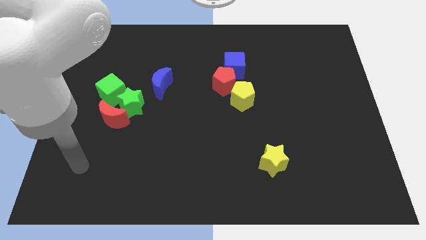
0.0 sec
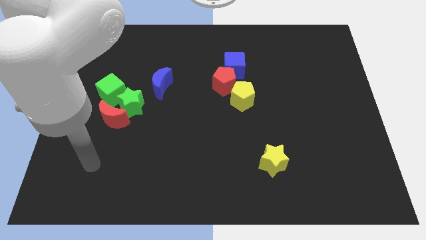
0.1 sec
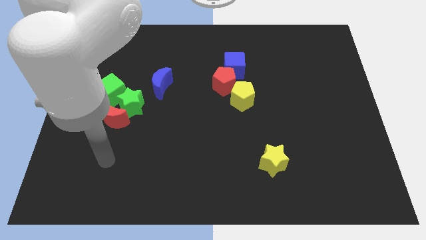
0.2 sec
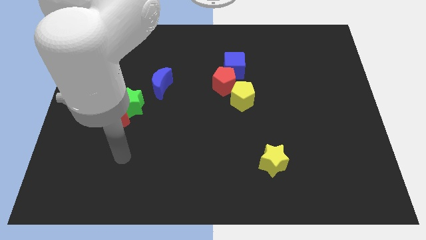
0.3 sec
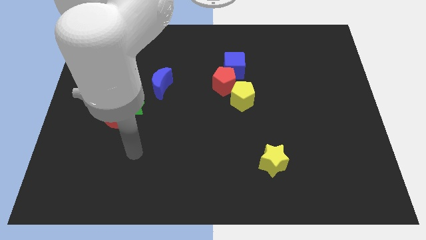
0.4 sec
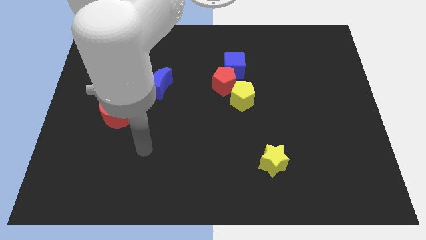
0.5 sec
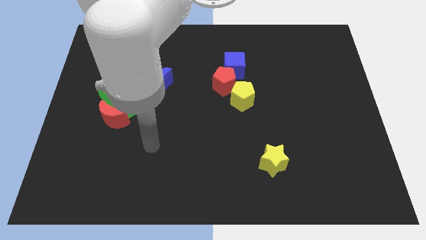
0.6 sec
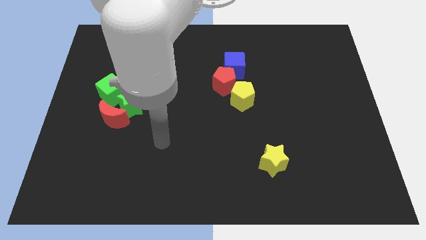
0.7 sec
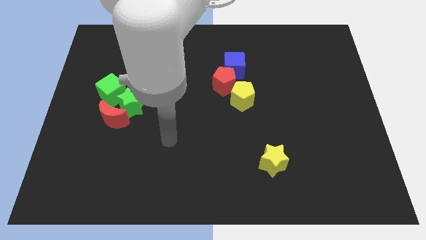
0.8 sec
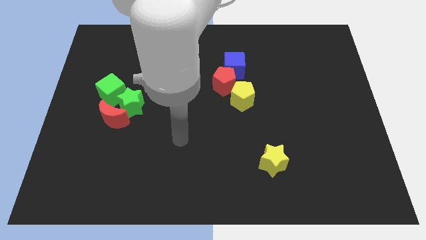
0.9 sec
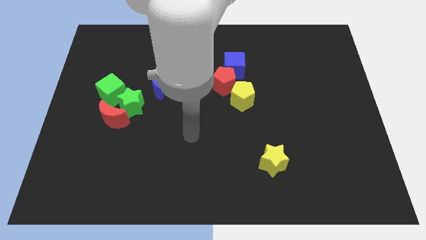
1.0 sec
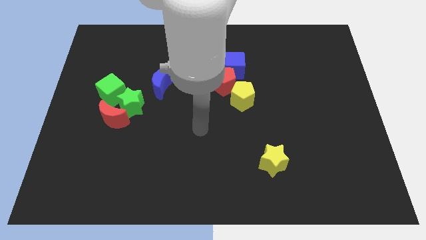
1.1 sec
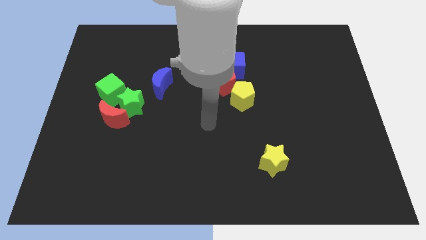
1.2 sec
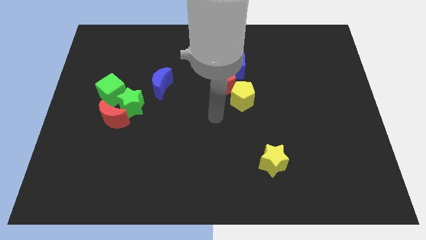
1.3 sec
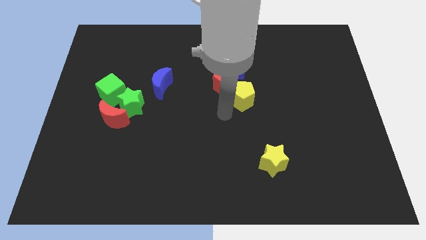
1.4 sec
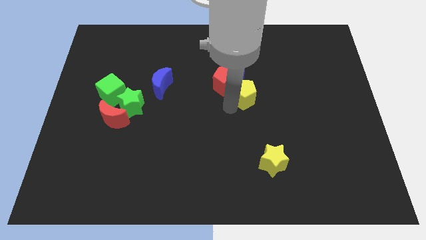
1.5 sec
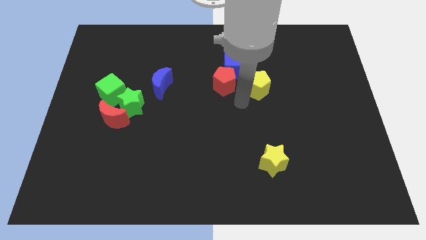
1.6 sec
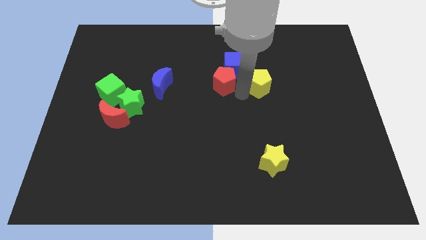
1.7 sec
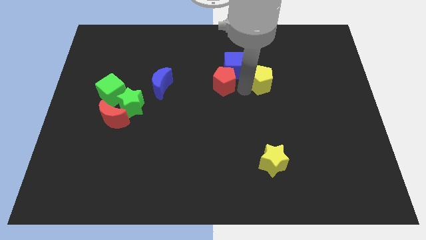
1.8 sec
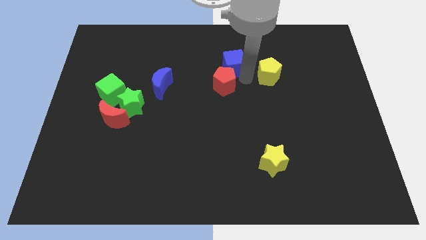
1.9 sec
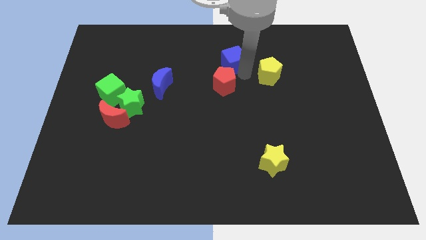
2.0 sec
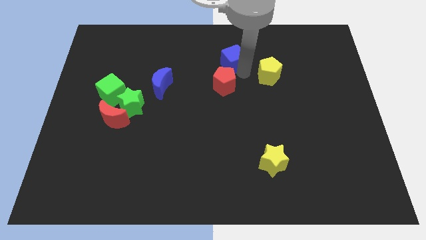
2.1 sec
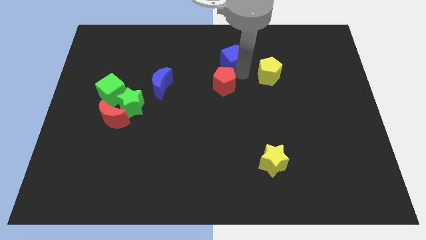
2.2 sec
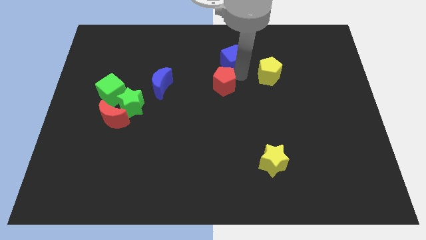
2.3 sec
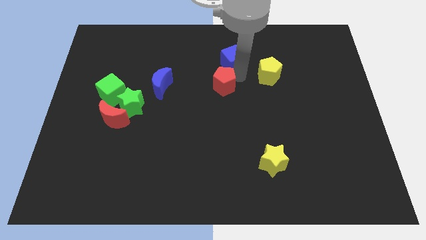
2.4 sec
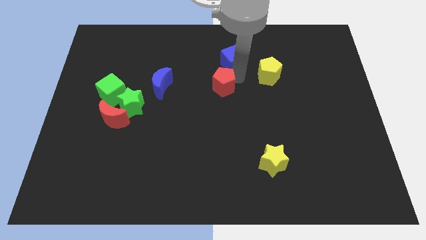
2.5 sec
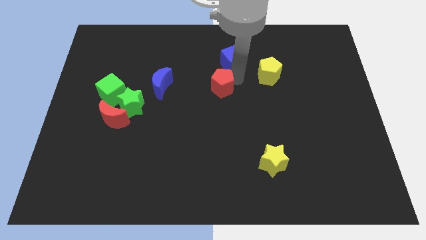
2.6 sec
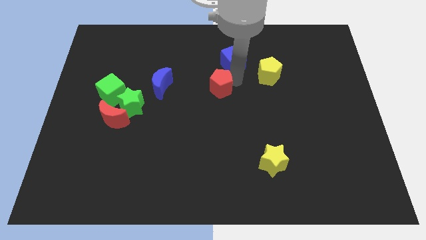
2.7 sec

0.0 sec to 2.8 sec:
move the red pentagon away from the blue cube and yellow pentagon

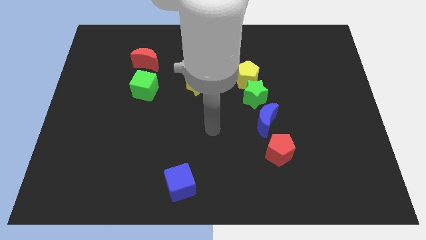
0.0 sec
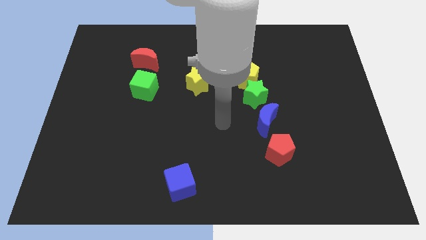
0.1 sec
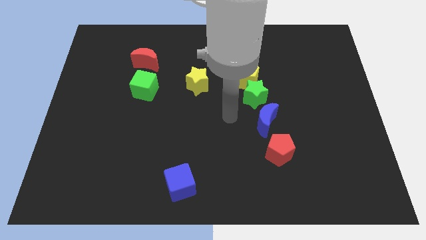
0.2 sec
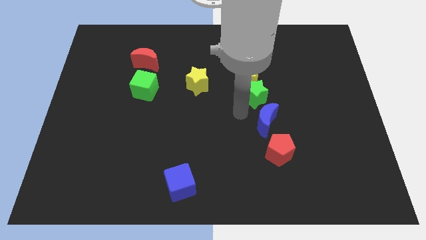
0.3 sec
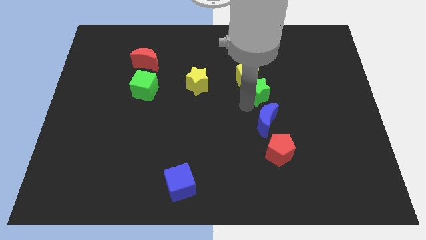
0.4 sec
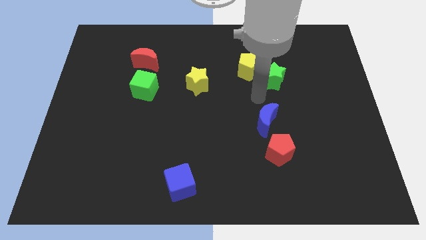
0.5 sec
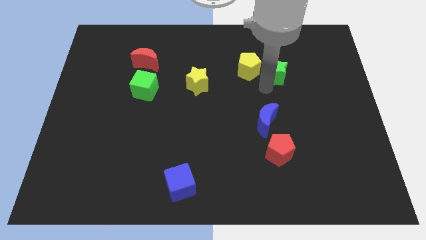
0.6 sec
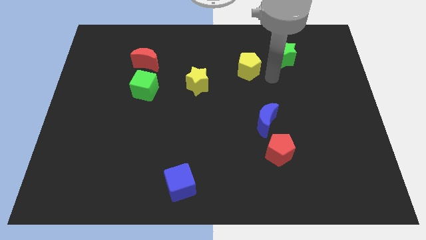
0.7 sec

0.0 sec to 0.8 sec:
move the yellow pentagon away from the green star

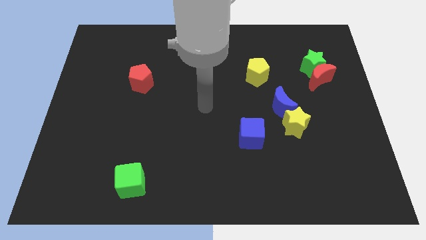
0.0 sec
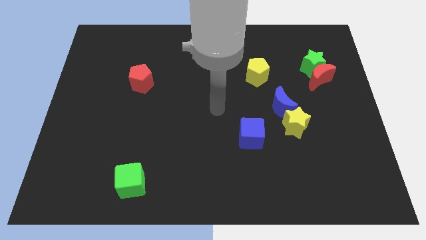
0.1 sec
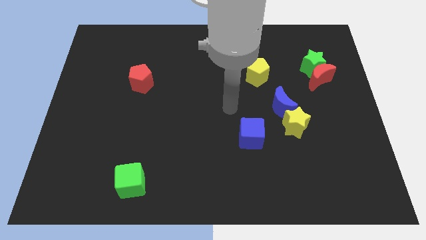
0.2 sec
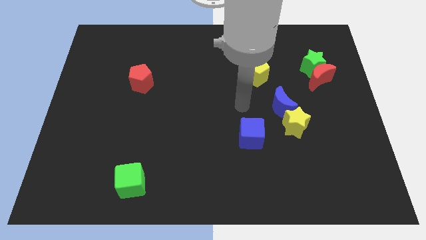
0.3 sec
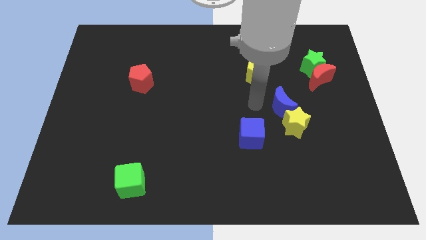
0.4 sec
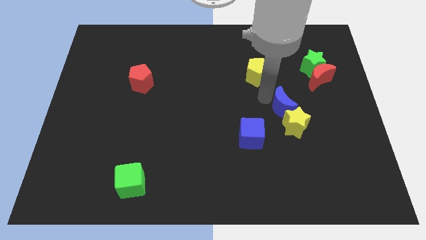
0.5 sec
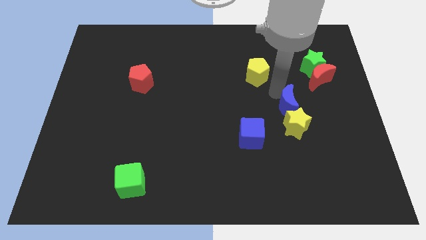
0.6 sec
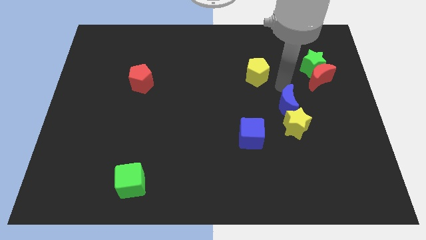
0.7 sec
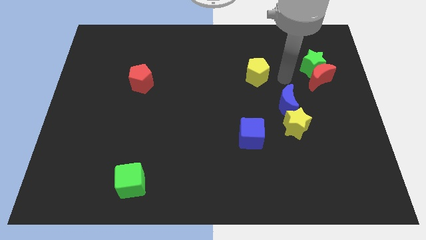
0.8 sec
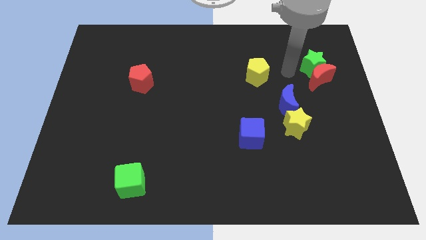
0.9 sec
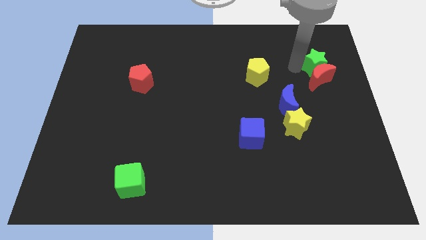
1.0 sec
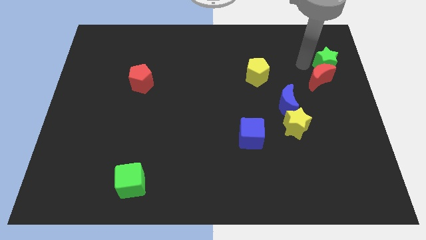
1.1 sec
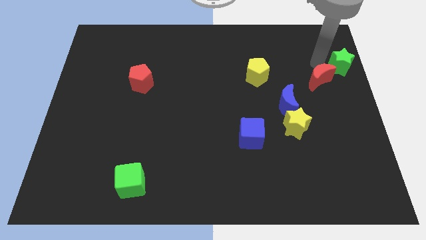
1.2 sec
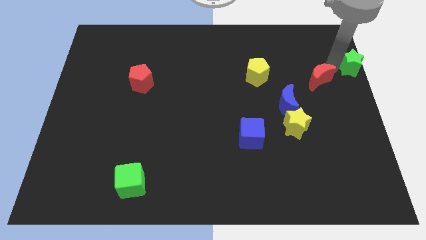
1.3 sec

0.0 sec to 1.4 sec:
separate the red moon from the green star

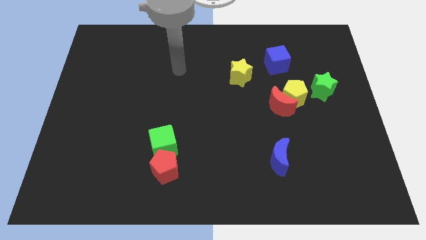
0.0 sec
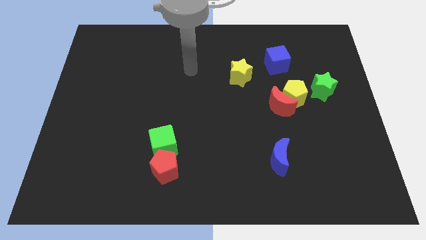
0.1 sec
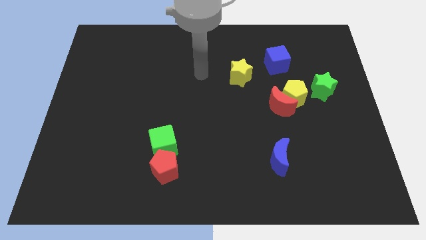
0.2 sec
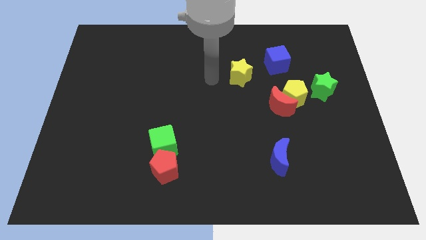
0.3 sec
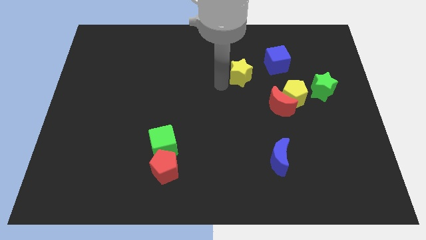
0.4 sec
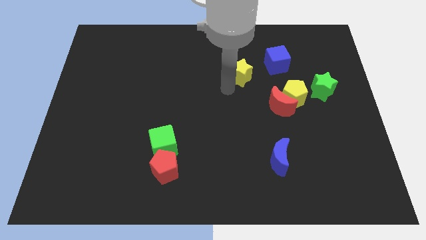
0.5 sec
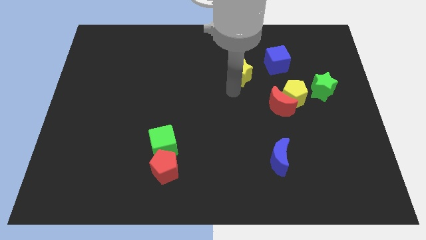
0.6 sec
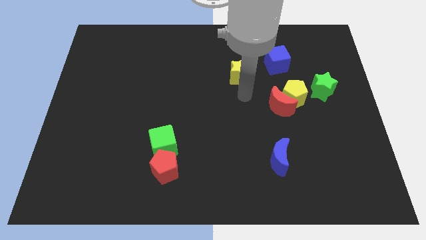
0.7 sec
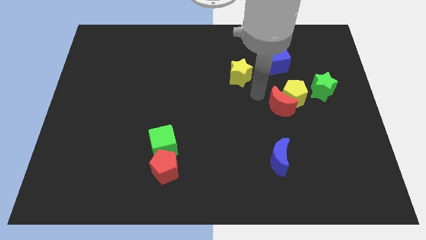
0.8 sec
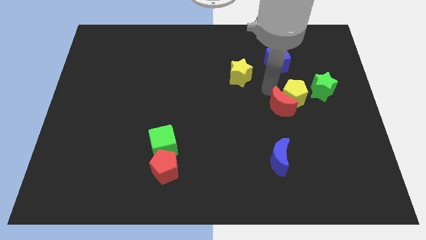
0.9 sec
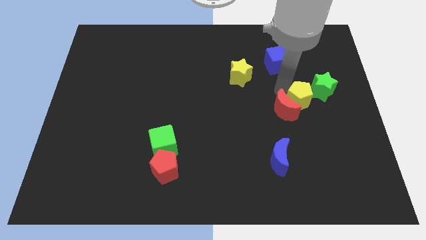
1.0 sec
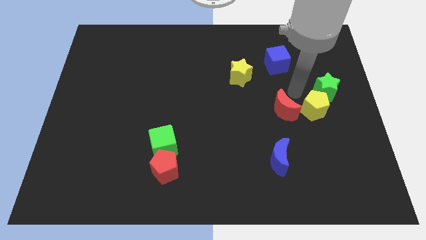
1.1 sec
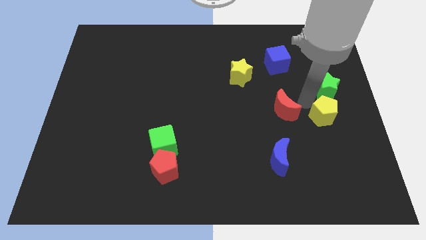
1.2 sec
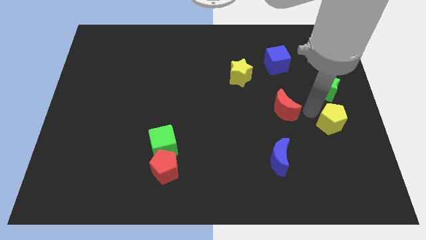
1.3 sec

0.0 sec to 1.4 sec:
separate the red moon from the yellow pentagon

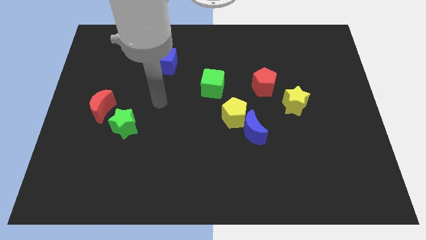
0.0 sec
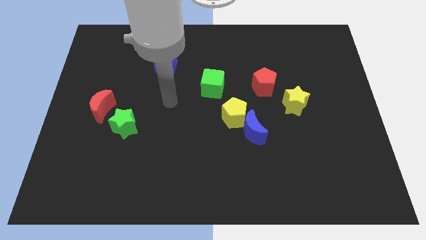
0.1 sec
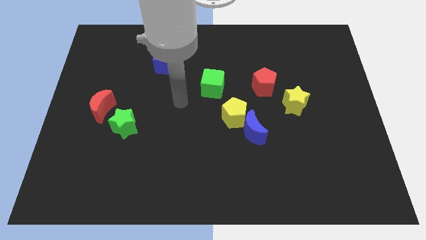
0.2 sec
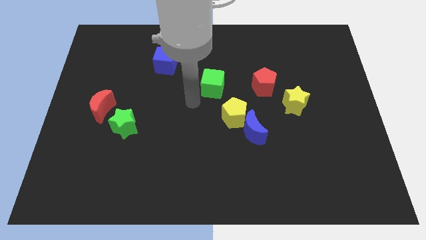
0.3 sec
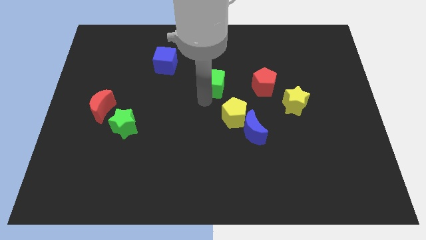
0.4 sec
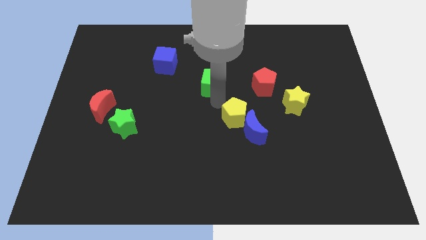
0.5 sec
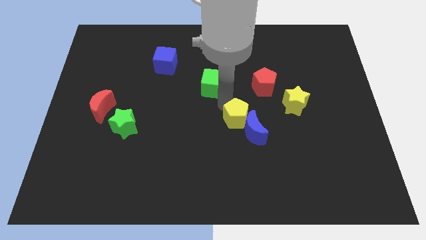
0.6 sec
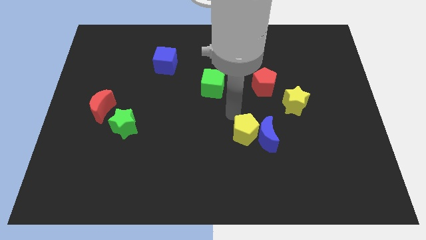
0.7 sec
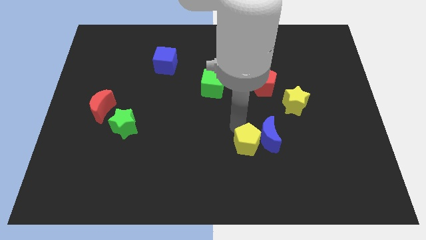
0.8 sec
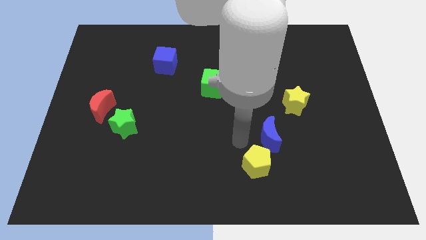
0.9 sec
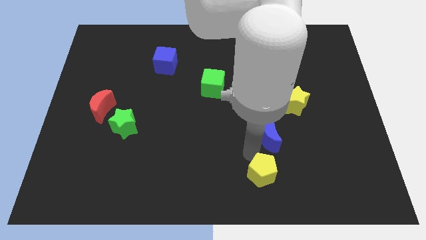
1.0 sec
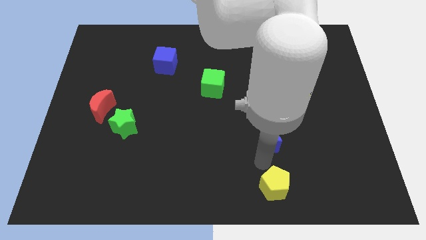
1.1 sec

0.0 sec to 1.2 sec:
separate the blue moon from the yellow pentagon

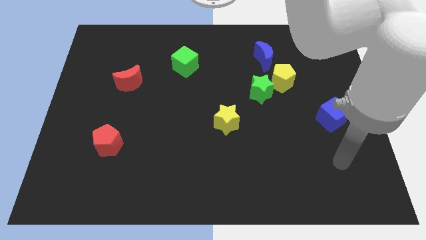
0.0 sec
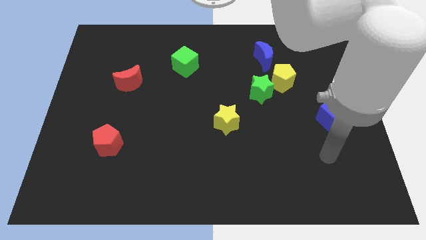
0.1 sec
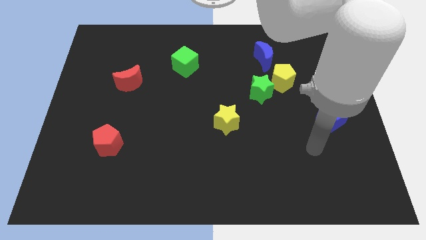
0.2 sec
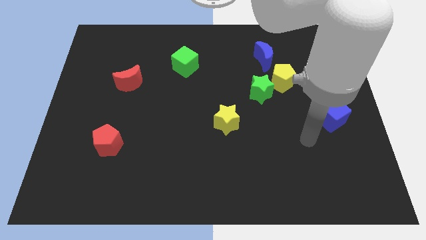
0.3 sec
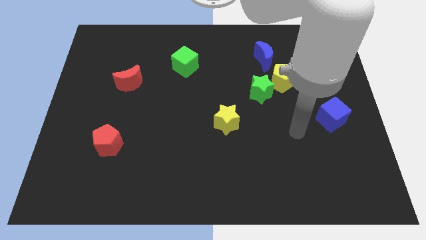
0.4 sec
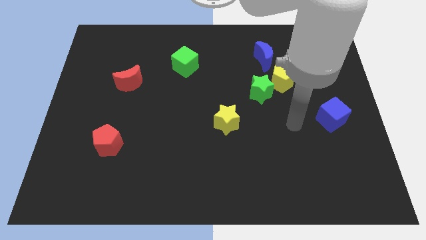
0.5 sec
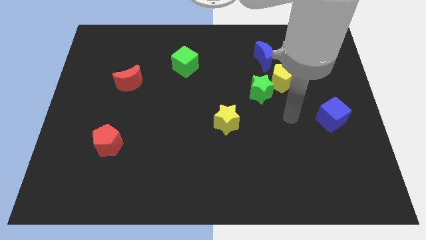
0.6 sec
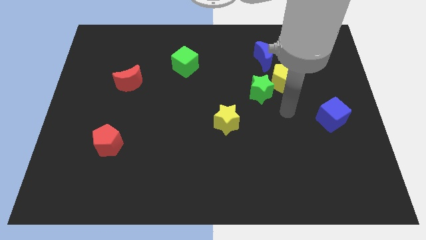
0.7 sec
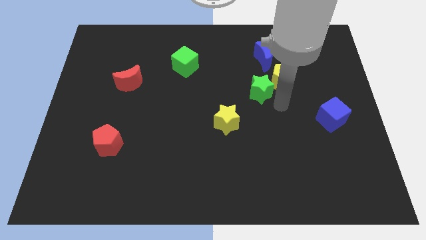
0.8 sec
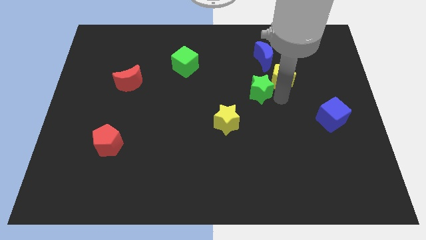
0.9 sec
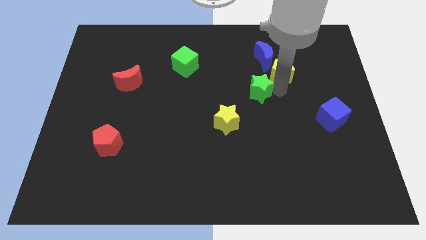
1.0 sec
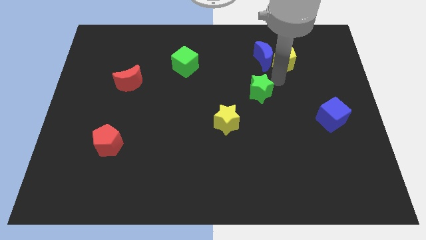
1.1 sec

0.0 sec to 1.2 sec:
pull the green star apart from the yellow pentagon

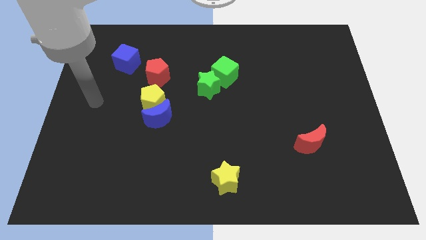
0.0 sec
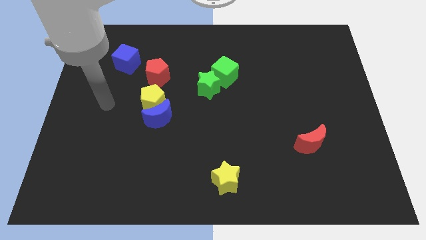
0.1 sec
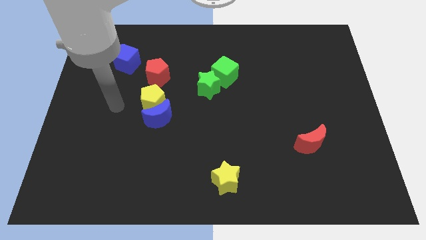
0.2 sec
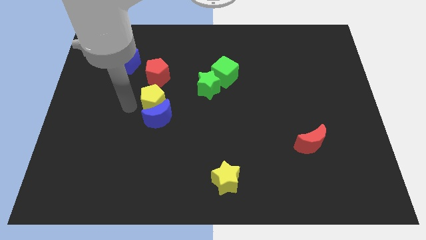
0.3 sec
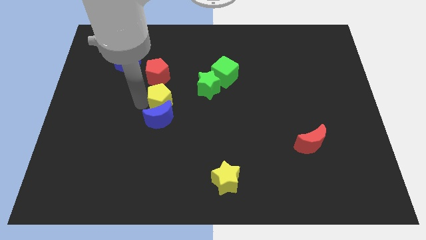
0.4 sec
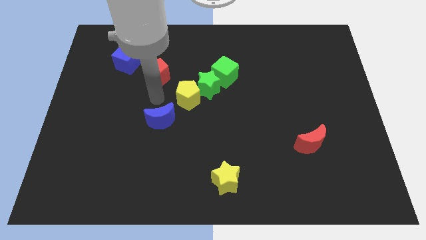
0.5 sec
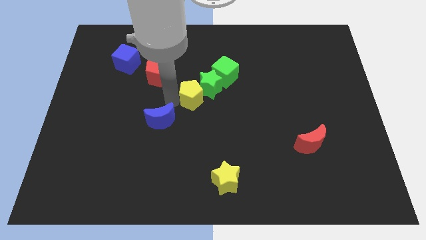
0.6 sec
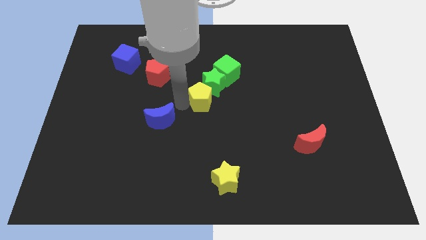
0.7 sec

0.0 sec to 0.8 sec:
move the blue moon away from the yellow pentagon
